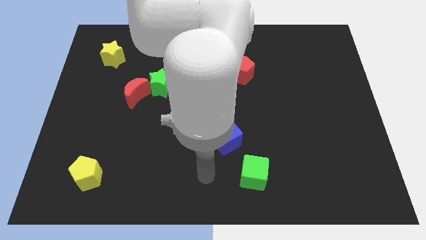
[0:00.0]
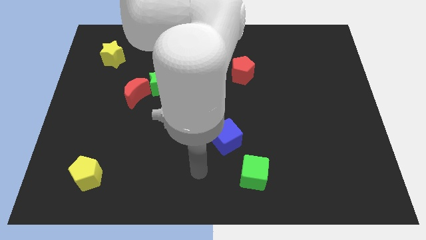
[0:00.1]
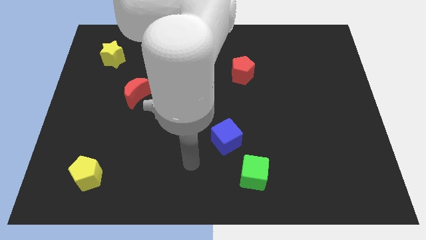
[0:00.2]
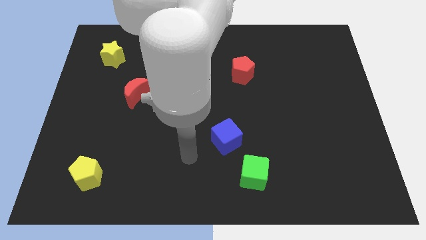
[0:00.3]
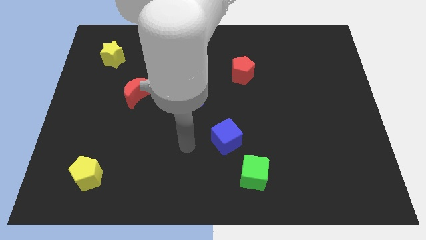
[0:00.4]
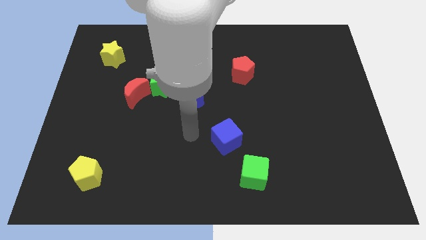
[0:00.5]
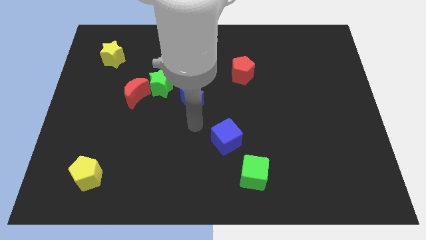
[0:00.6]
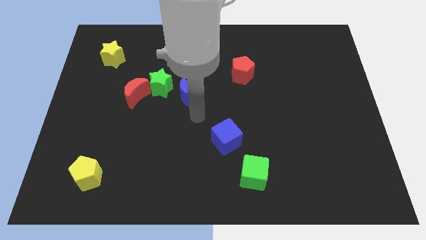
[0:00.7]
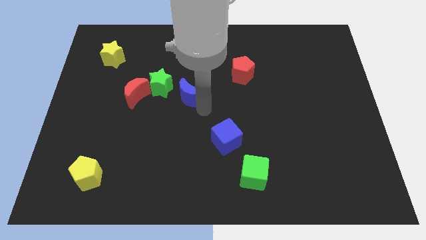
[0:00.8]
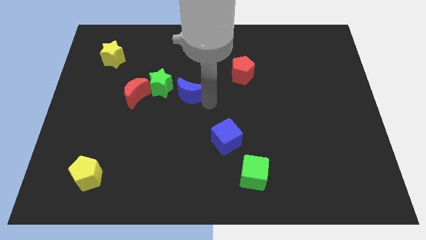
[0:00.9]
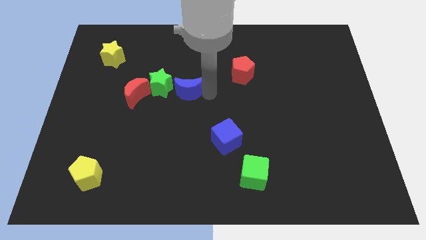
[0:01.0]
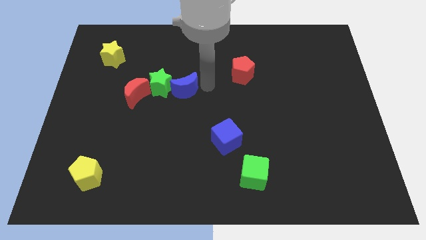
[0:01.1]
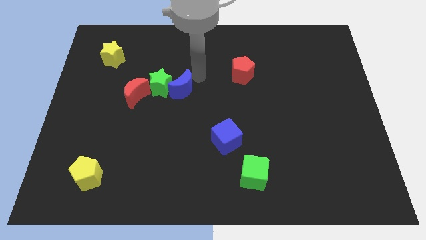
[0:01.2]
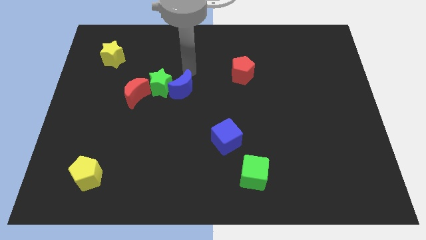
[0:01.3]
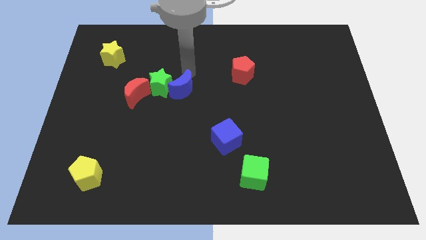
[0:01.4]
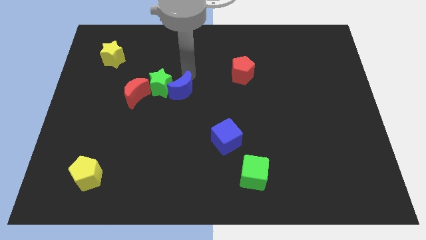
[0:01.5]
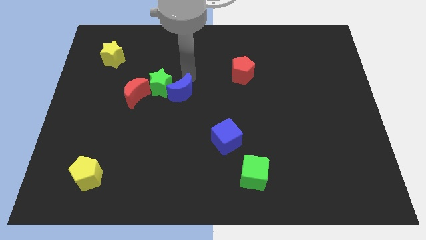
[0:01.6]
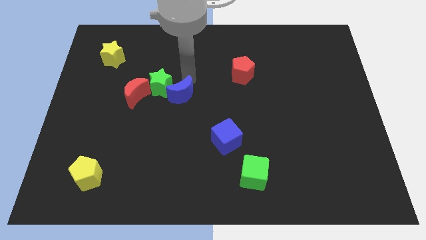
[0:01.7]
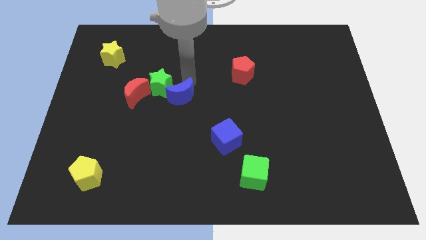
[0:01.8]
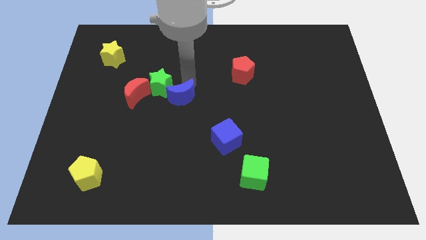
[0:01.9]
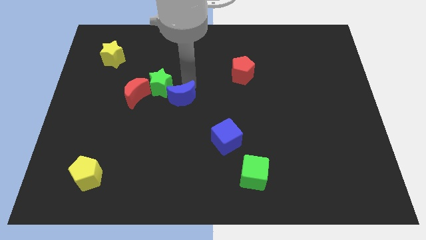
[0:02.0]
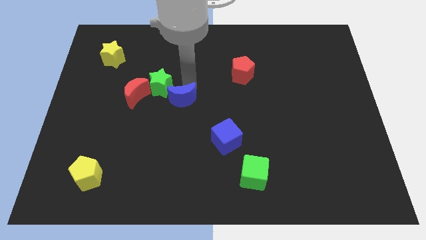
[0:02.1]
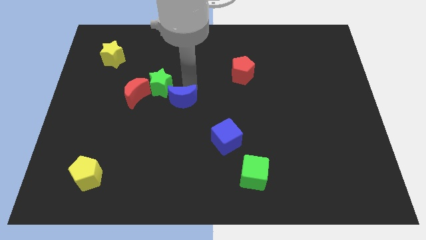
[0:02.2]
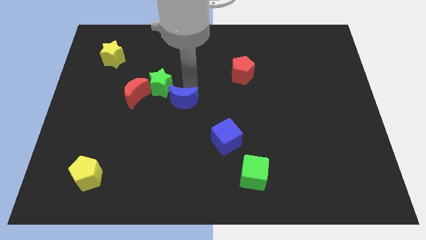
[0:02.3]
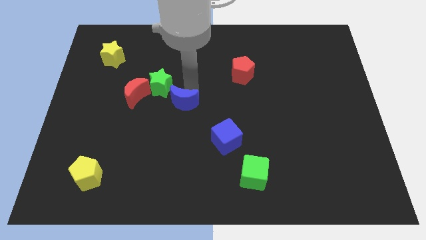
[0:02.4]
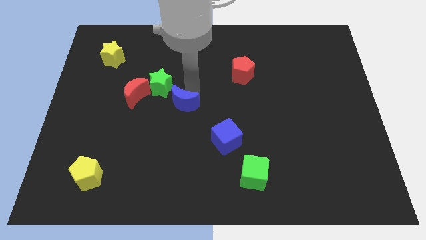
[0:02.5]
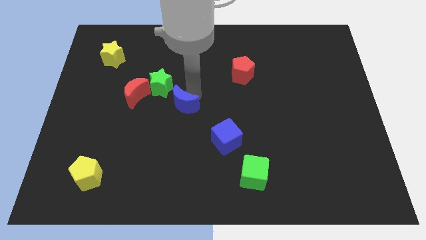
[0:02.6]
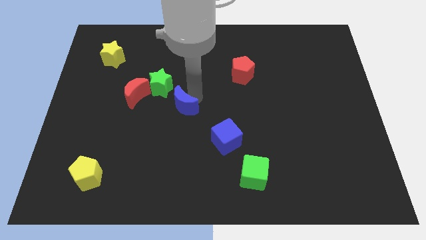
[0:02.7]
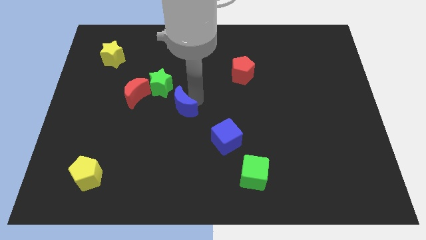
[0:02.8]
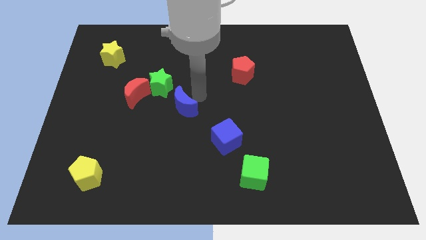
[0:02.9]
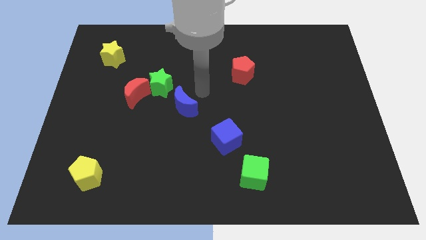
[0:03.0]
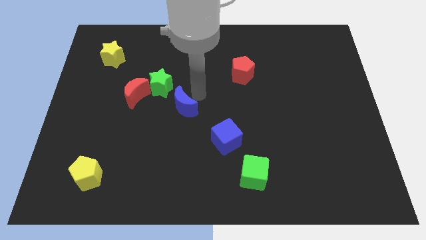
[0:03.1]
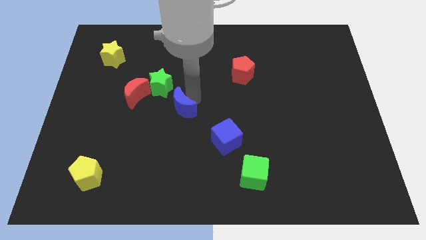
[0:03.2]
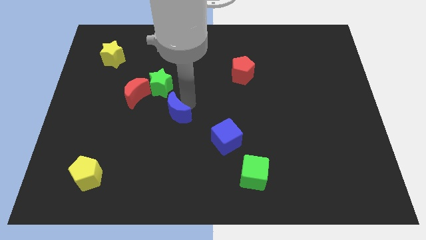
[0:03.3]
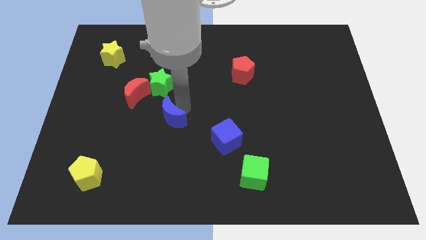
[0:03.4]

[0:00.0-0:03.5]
move the blue moon somewhat downwards and left

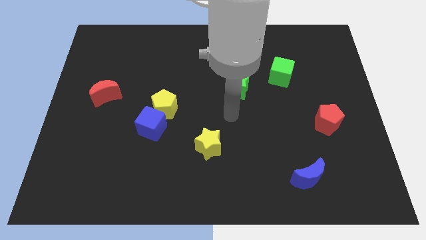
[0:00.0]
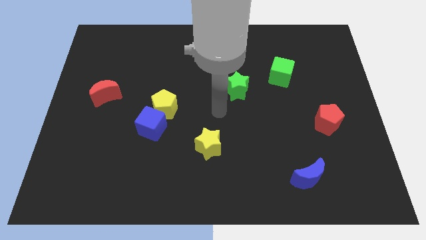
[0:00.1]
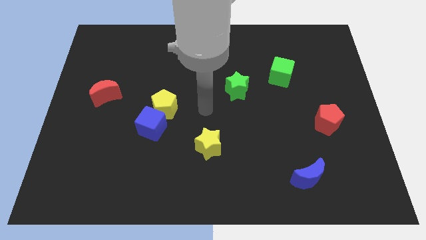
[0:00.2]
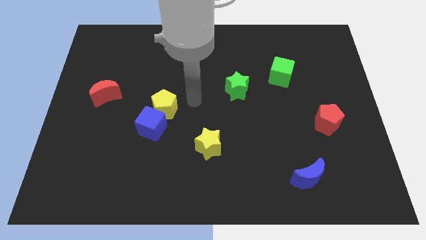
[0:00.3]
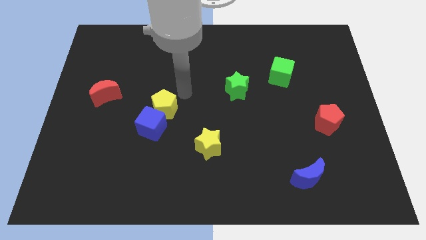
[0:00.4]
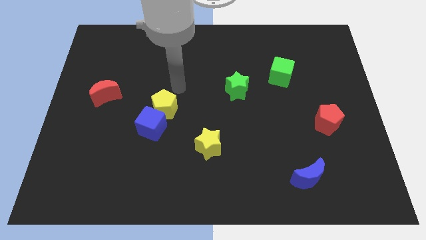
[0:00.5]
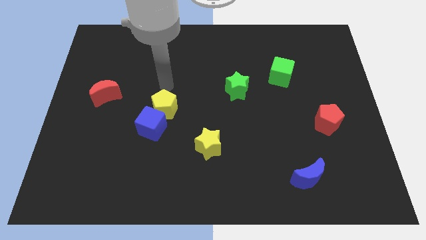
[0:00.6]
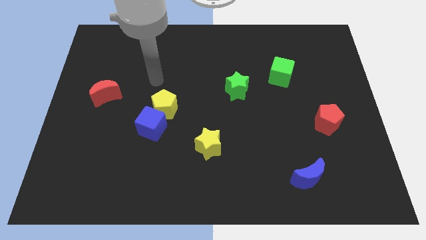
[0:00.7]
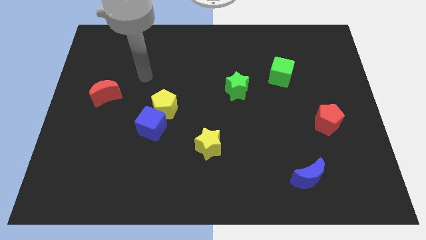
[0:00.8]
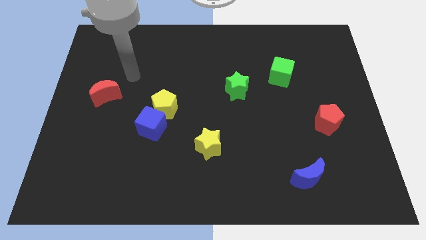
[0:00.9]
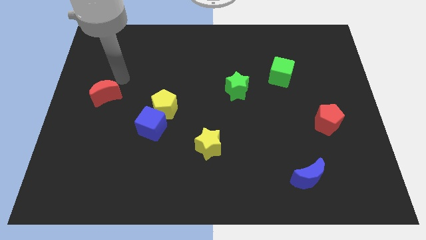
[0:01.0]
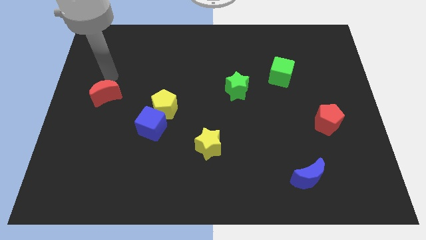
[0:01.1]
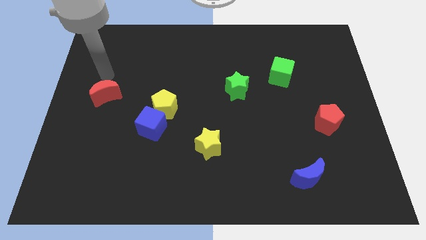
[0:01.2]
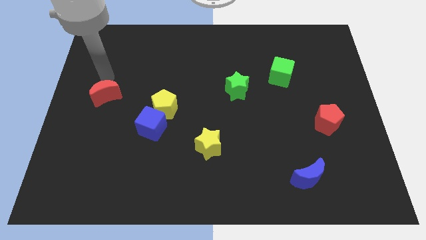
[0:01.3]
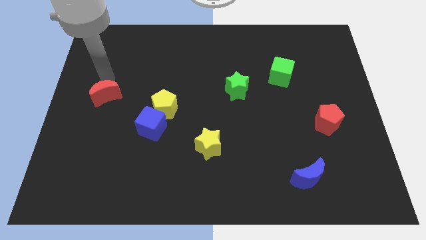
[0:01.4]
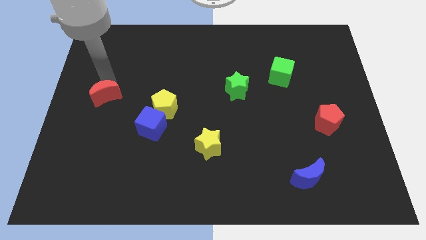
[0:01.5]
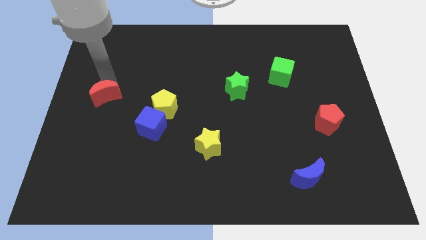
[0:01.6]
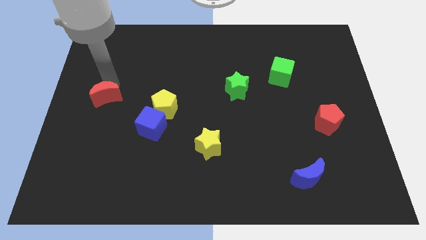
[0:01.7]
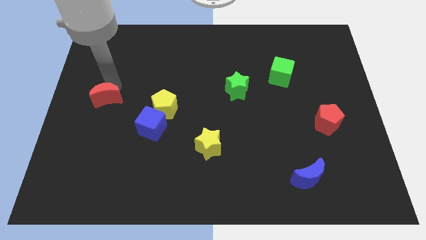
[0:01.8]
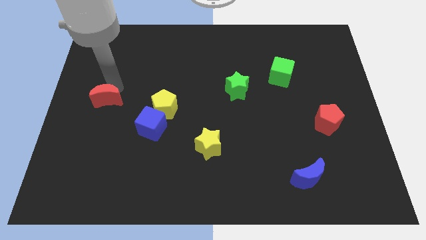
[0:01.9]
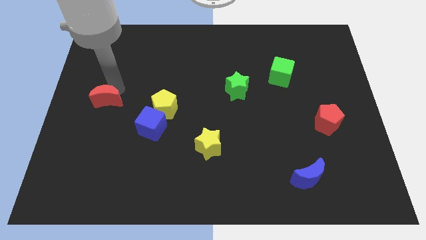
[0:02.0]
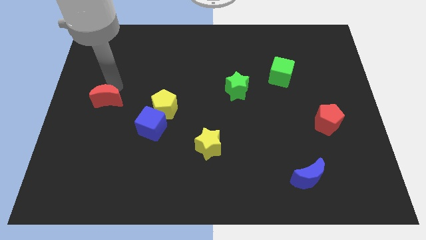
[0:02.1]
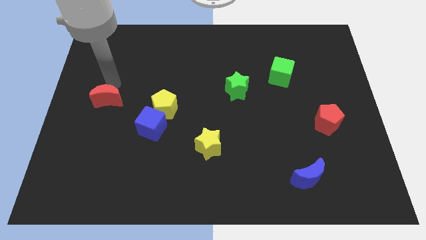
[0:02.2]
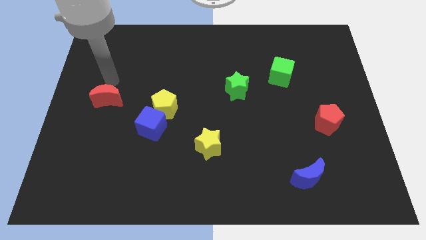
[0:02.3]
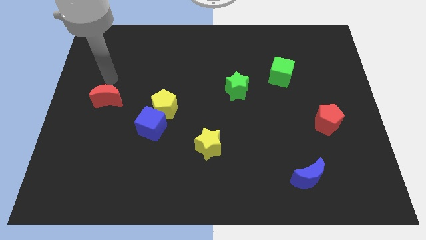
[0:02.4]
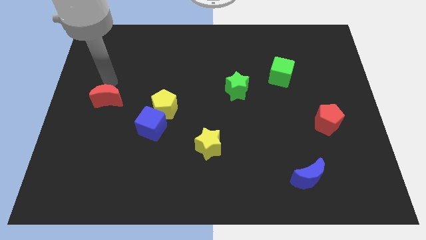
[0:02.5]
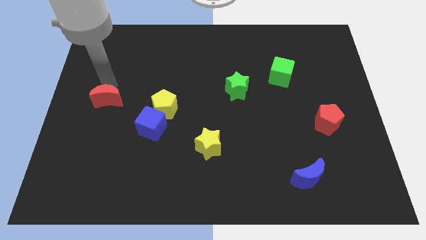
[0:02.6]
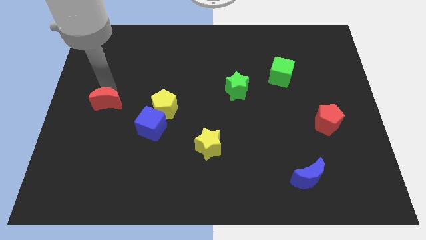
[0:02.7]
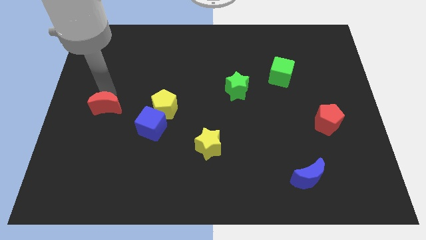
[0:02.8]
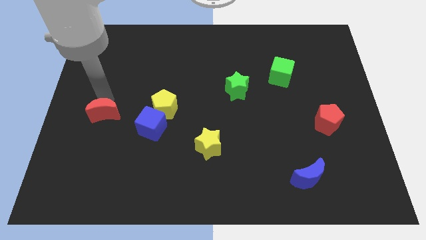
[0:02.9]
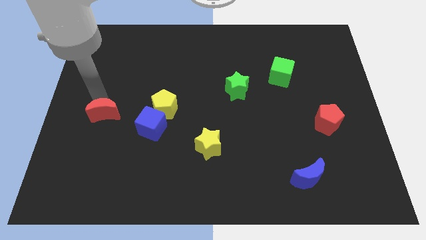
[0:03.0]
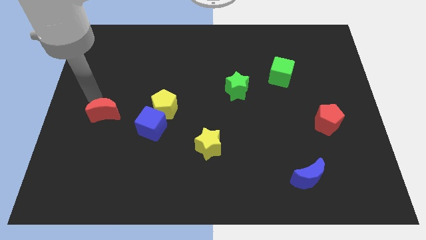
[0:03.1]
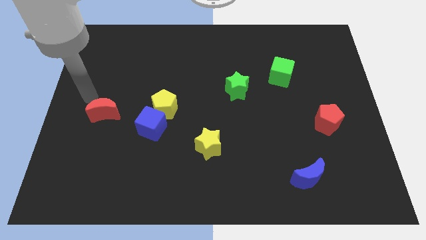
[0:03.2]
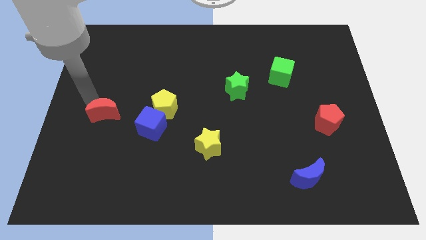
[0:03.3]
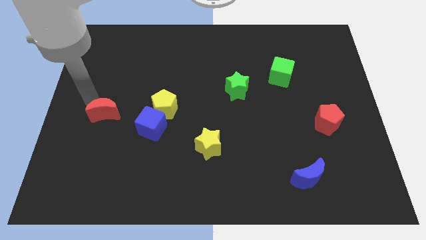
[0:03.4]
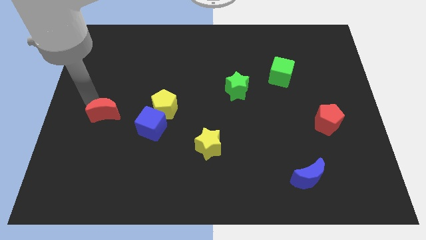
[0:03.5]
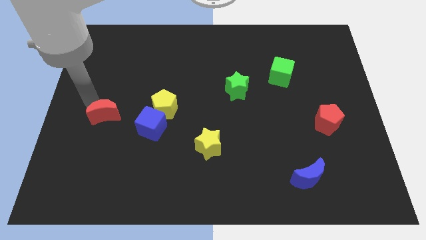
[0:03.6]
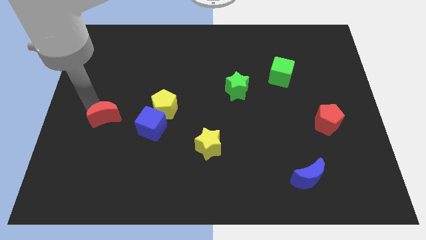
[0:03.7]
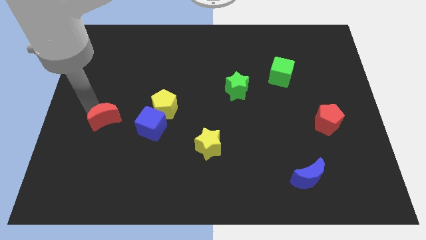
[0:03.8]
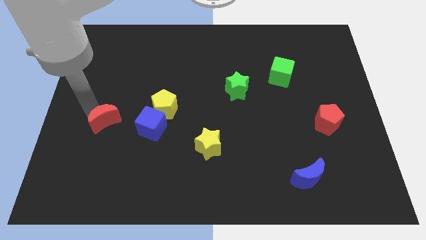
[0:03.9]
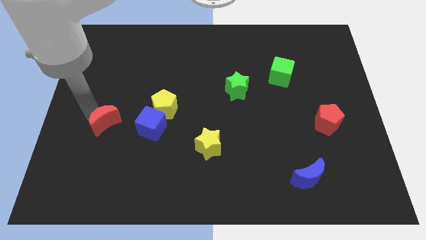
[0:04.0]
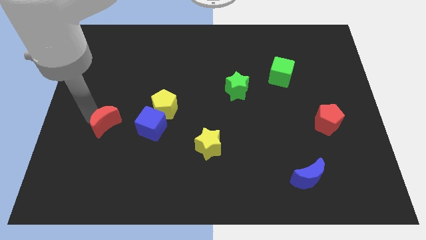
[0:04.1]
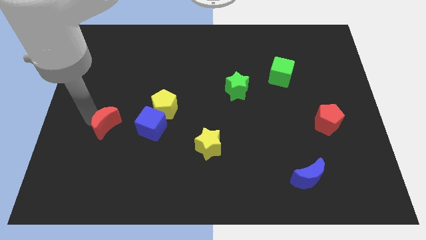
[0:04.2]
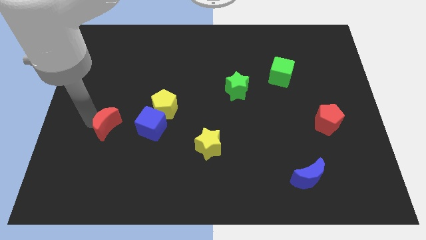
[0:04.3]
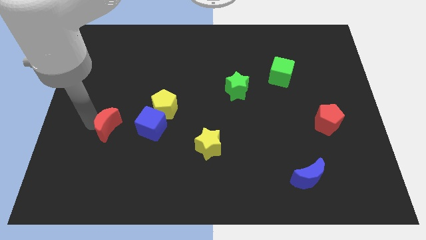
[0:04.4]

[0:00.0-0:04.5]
move the red moon downwards and to the right diagonally a bit

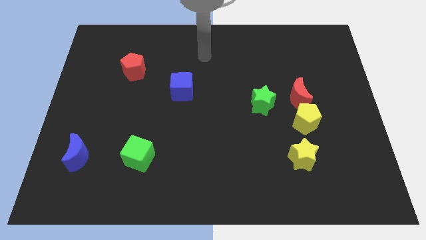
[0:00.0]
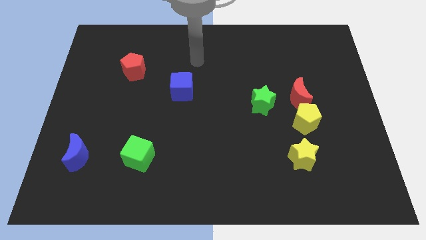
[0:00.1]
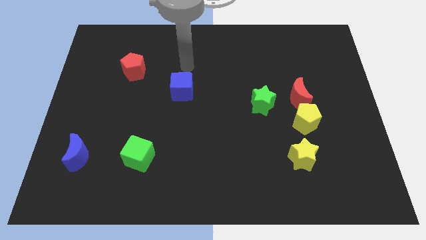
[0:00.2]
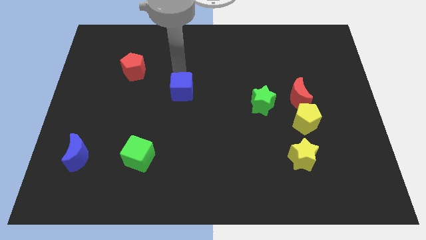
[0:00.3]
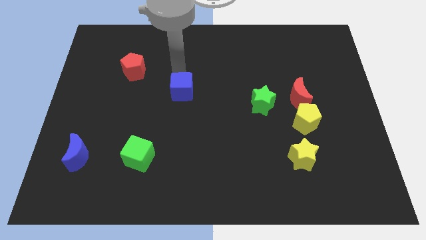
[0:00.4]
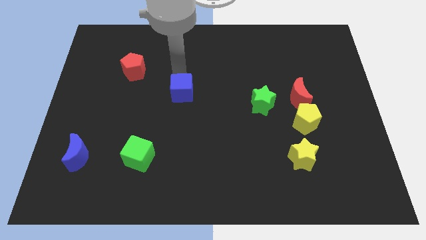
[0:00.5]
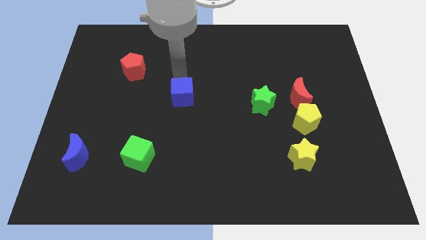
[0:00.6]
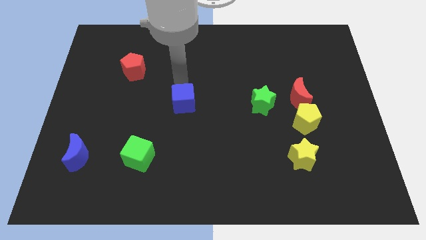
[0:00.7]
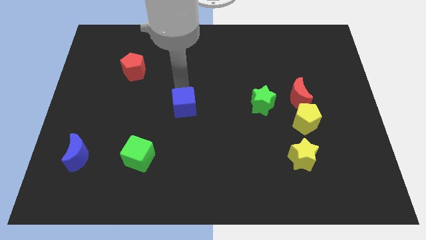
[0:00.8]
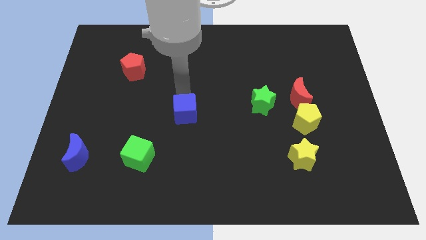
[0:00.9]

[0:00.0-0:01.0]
slightly push the blue cube down
